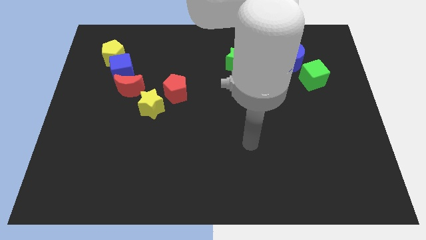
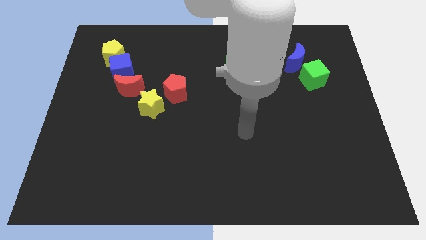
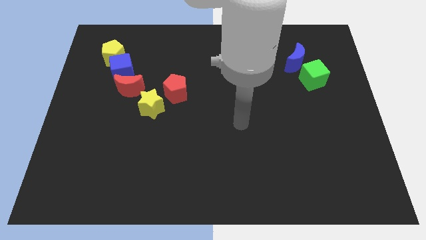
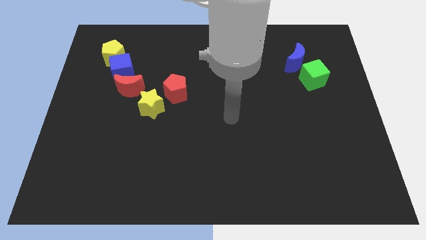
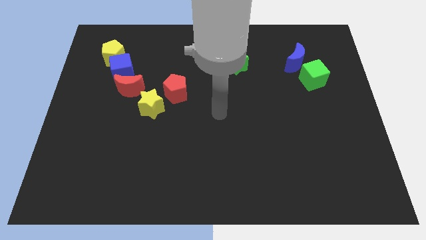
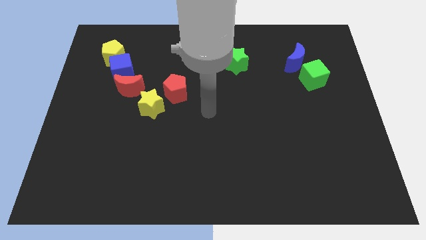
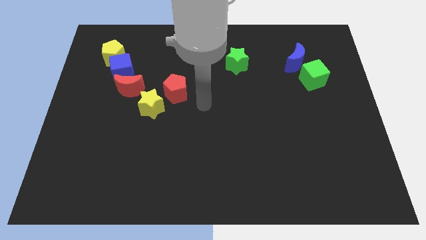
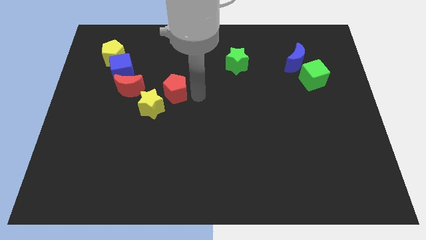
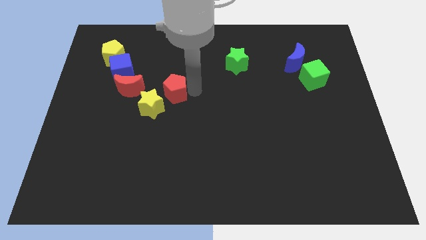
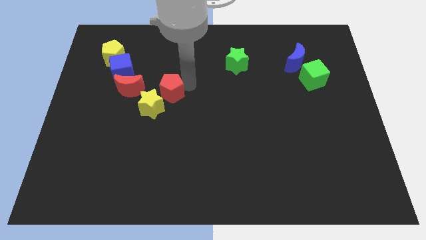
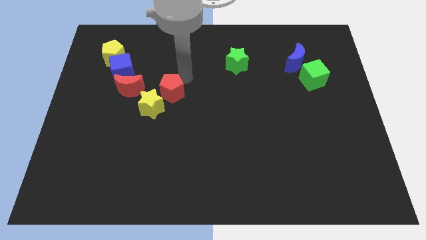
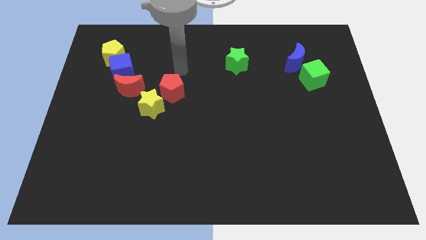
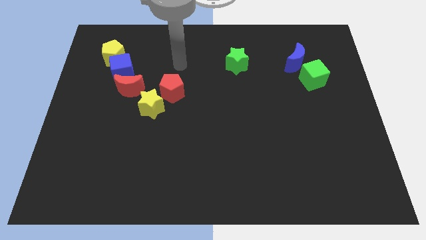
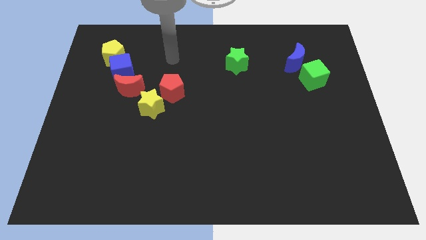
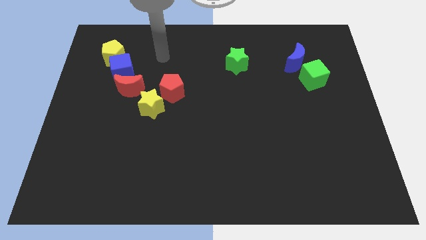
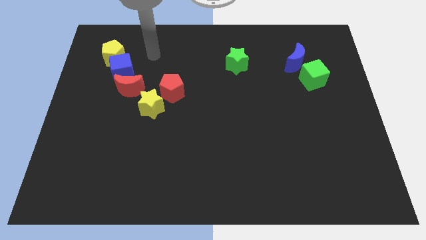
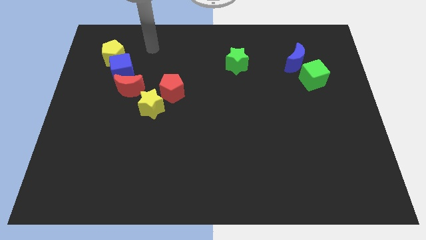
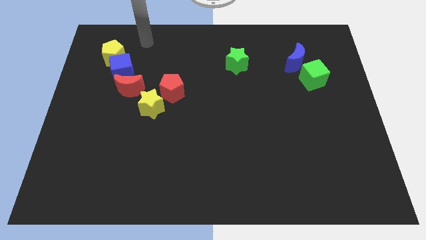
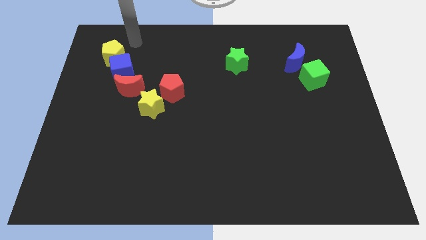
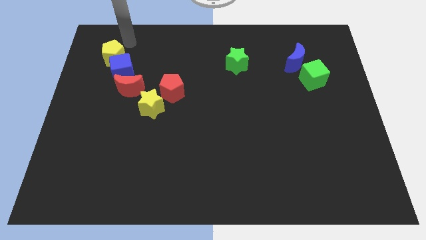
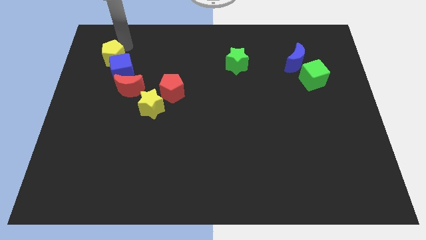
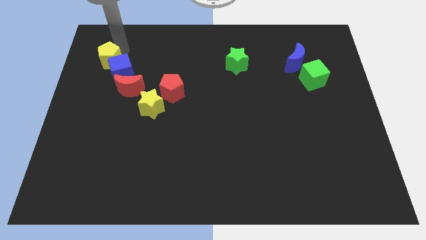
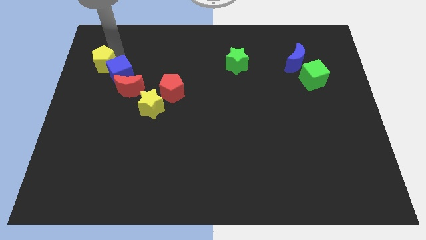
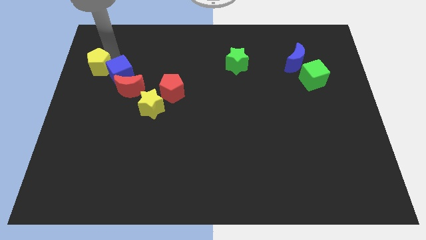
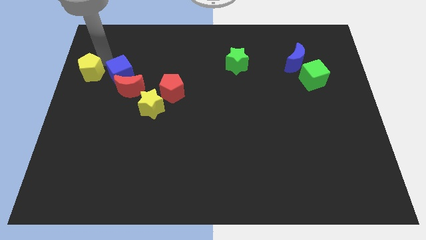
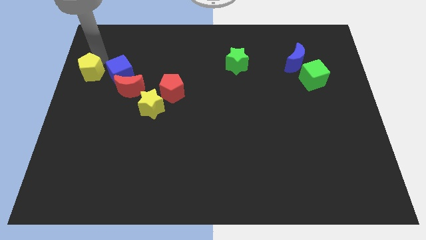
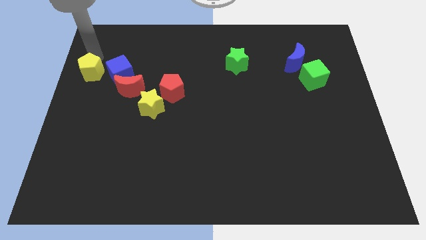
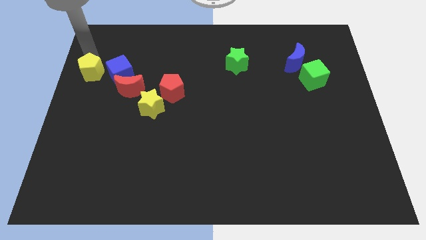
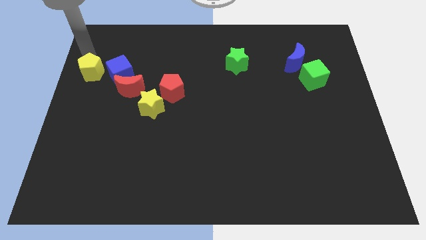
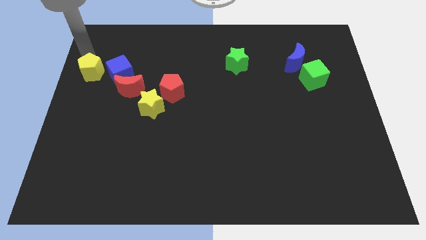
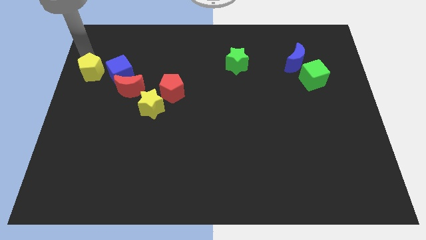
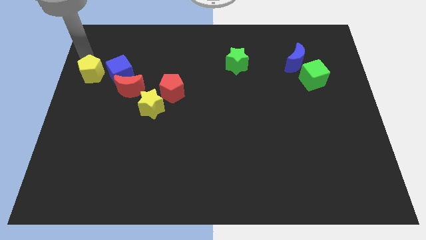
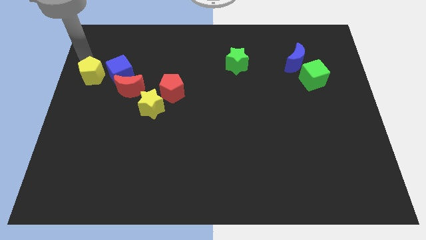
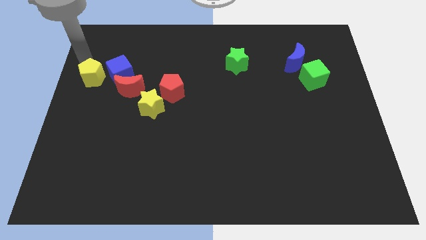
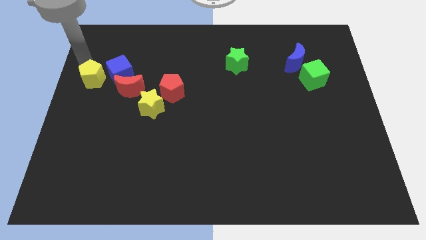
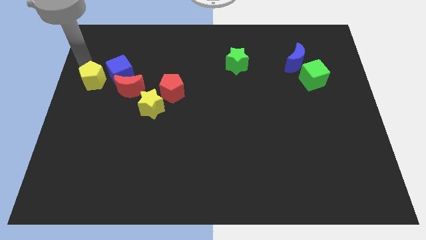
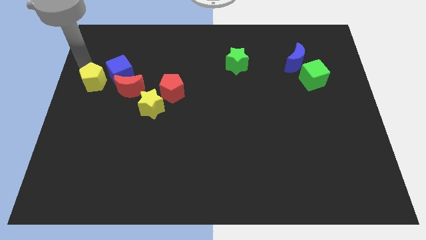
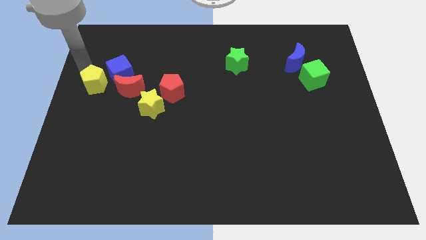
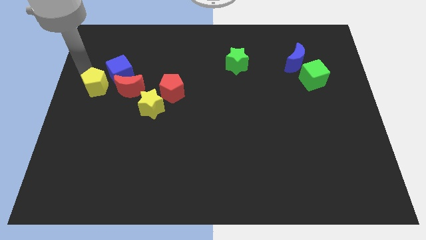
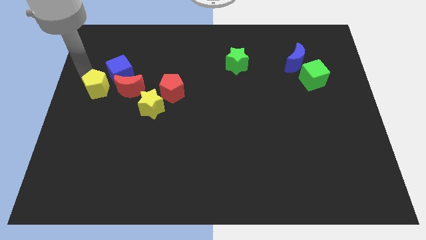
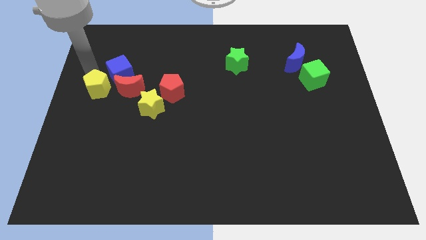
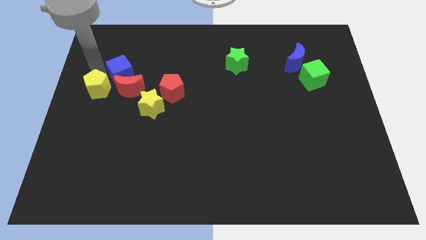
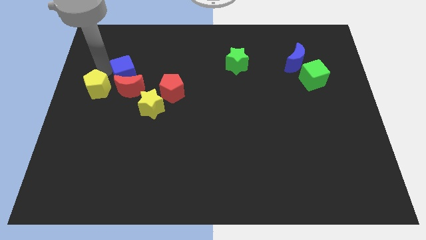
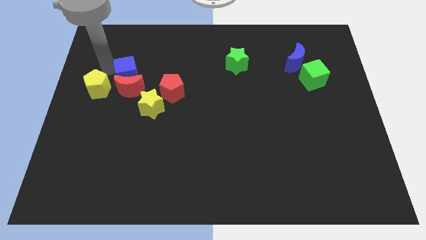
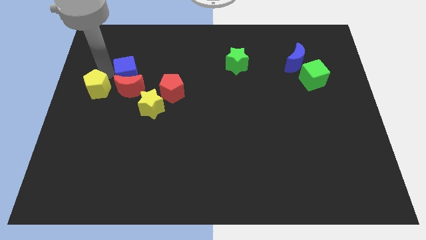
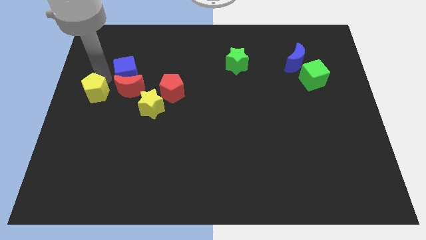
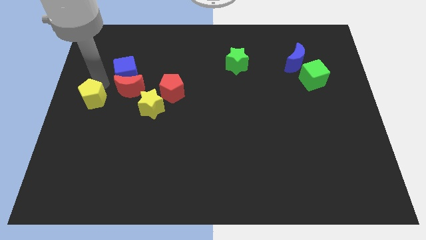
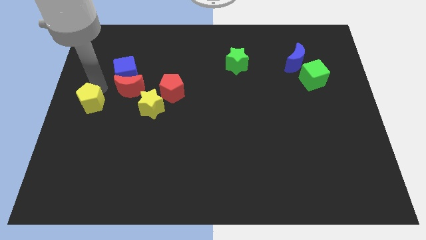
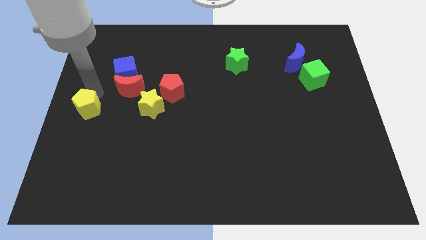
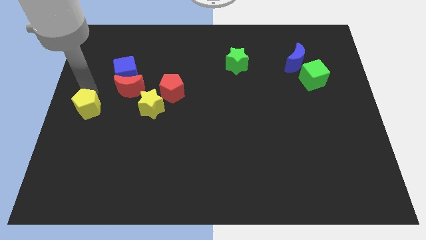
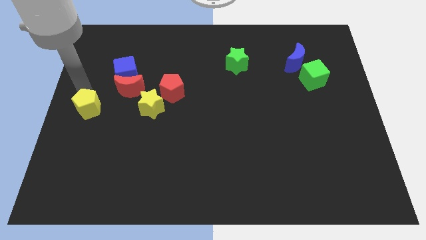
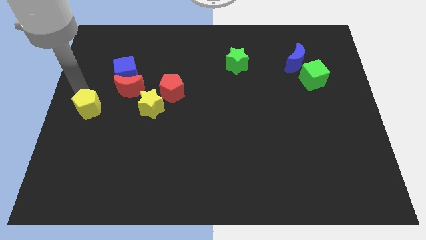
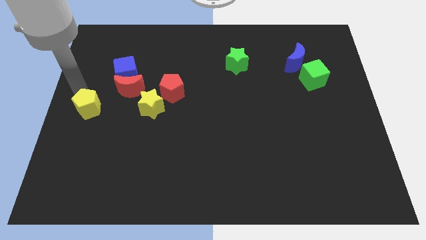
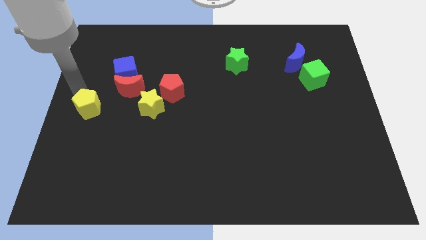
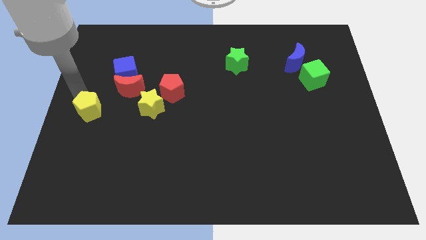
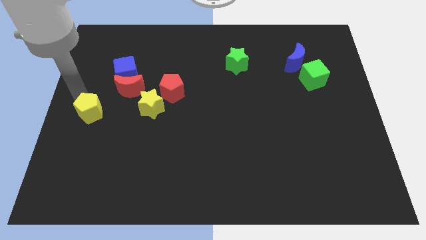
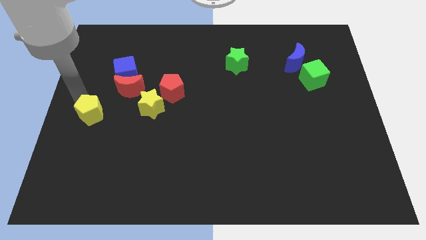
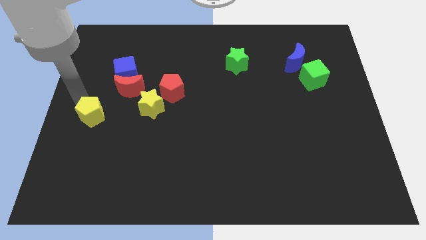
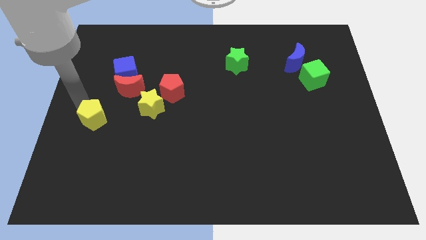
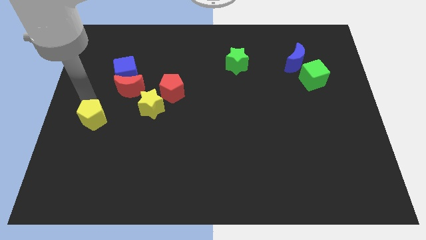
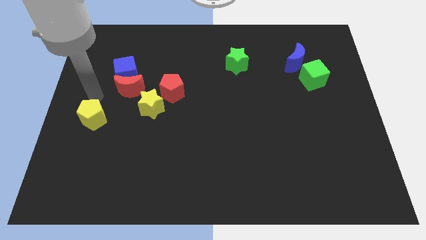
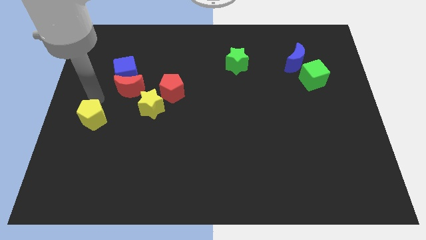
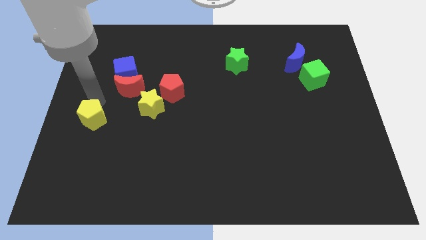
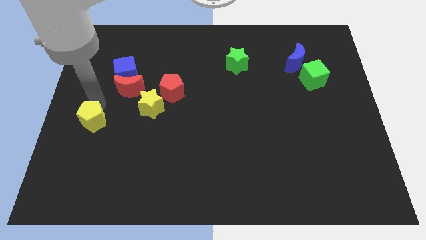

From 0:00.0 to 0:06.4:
push the yellow pentagon down

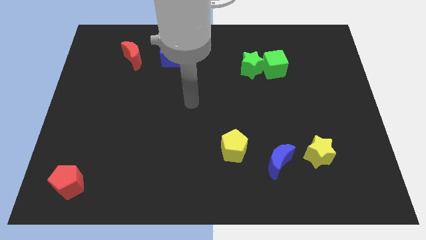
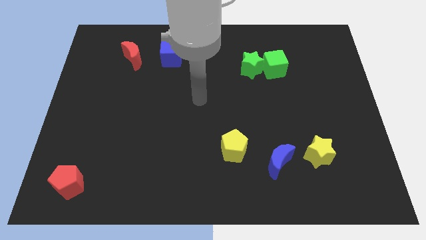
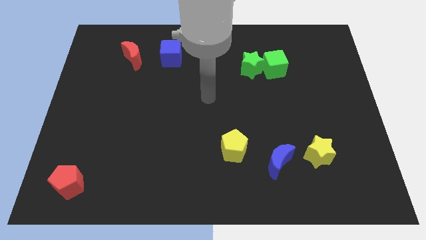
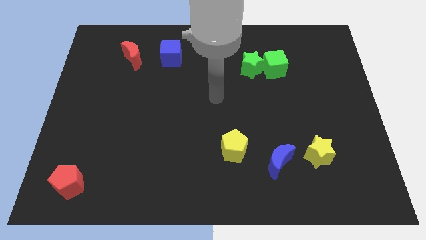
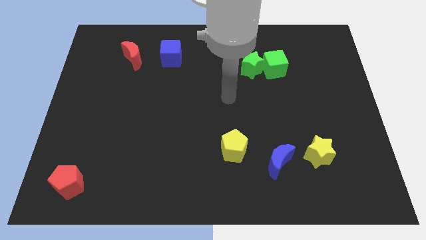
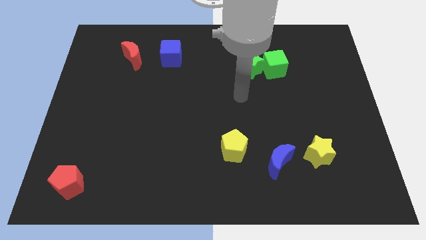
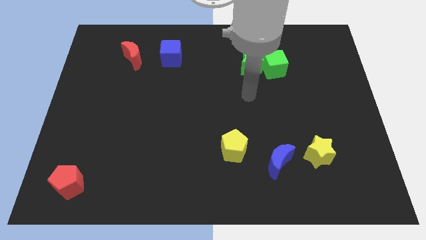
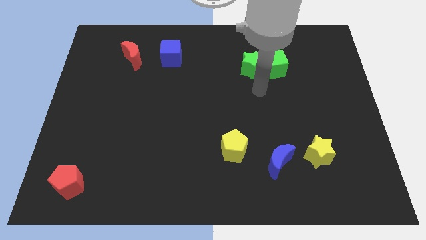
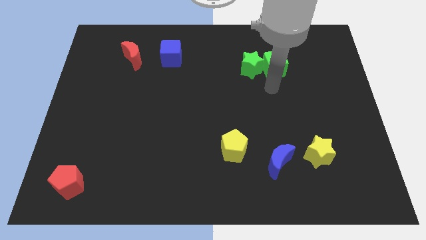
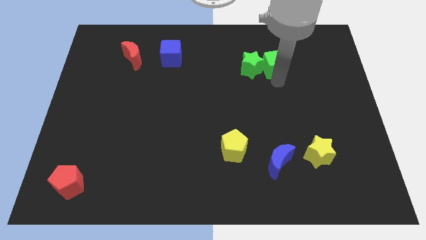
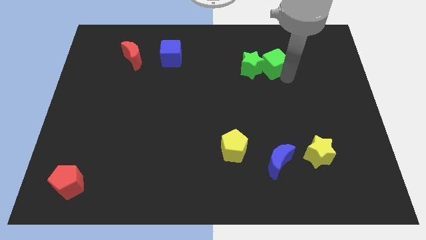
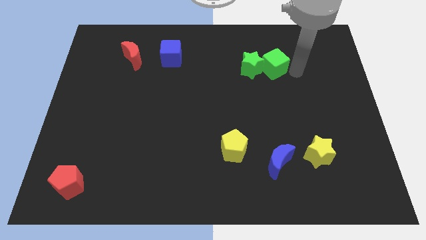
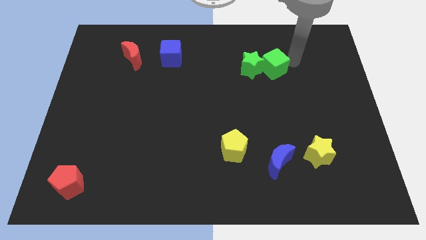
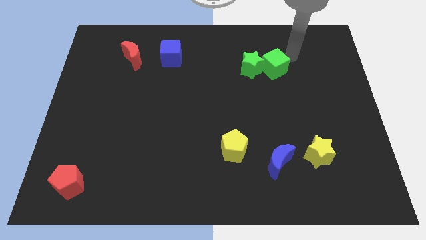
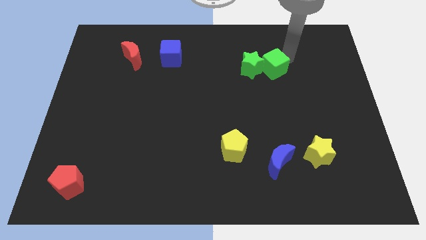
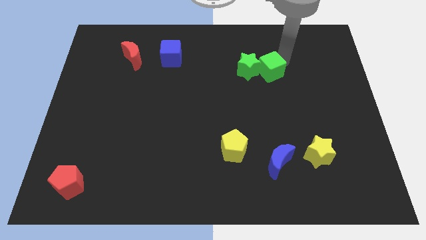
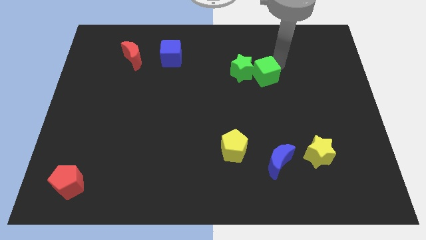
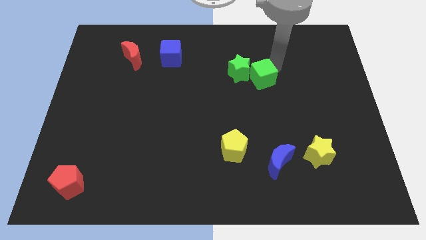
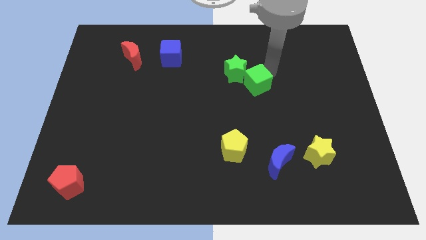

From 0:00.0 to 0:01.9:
slightly move the green cube diagonally down and to the left
